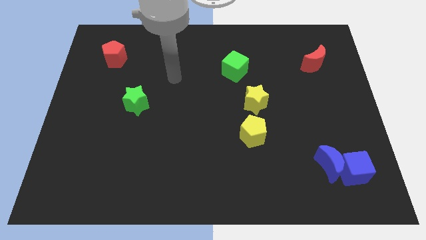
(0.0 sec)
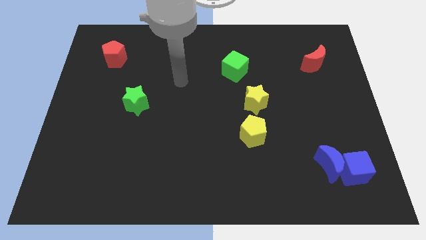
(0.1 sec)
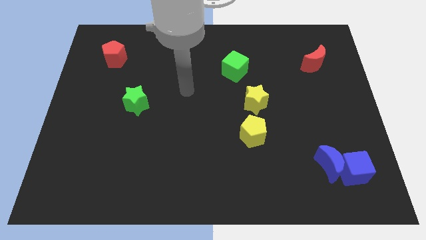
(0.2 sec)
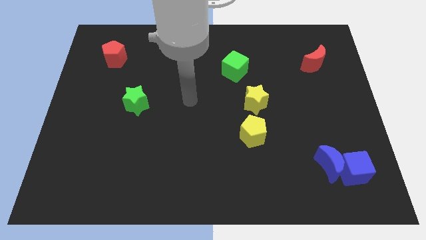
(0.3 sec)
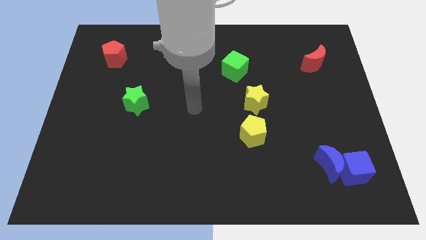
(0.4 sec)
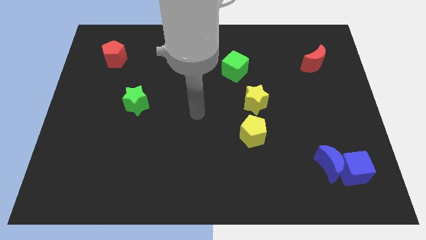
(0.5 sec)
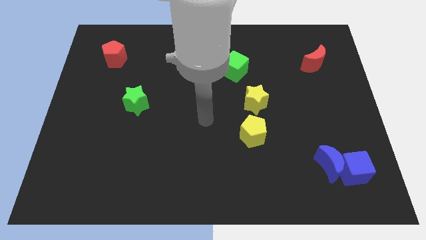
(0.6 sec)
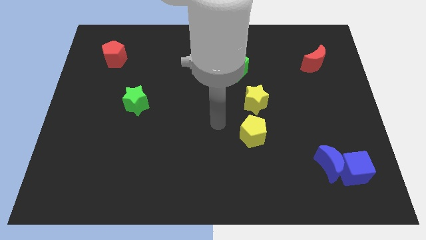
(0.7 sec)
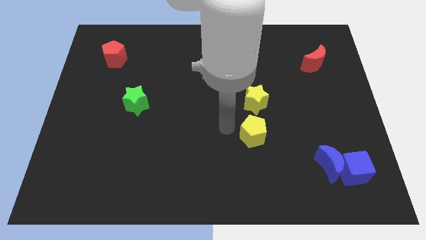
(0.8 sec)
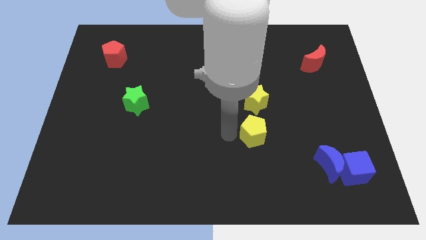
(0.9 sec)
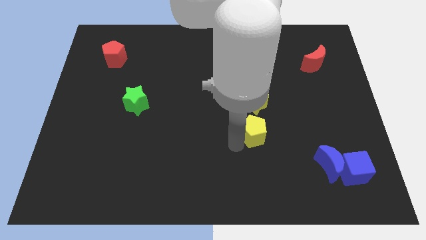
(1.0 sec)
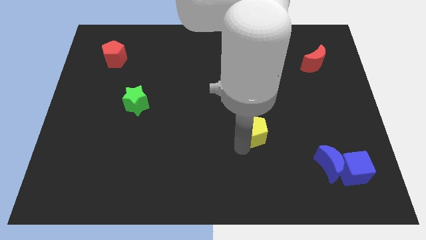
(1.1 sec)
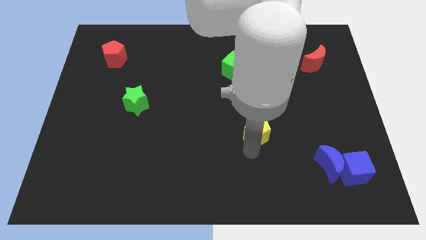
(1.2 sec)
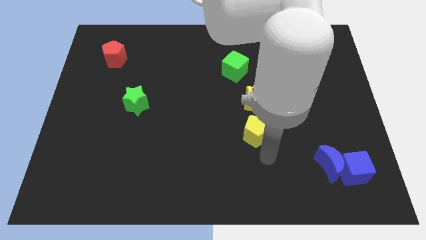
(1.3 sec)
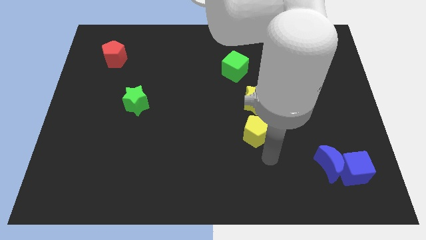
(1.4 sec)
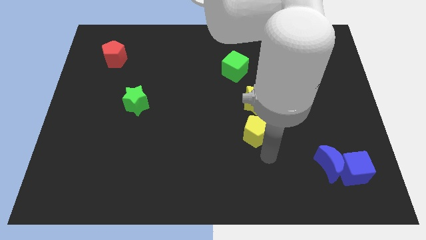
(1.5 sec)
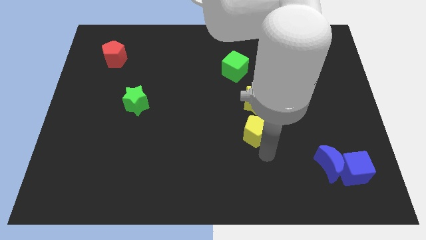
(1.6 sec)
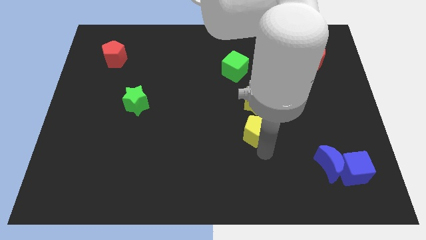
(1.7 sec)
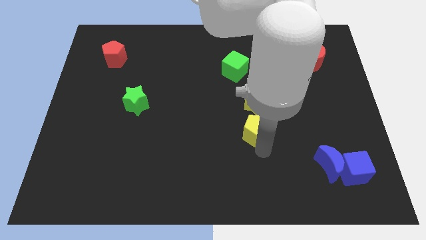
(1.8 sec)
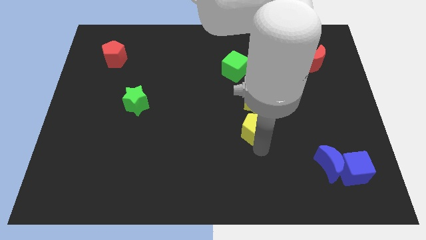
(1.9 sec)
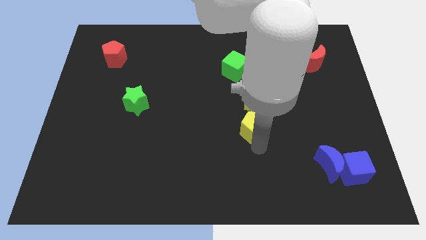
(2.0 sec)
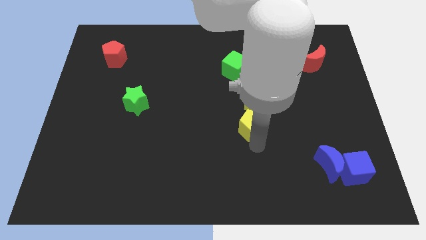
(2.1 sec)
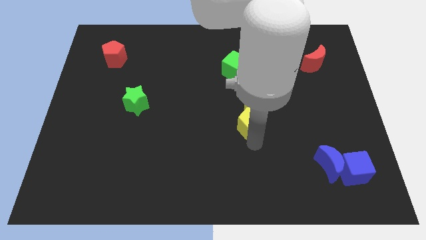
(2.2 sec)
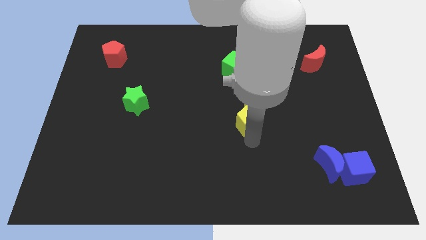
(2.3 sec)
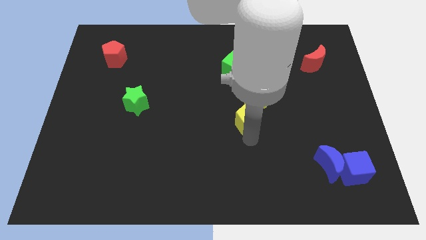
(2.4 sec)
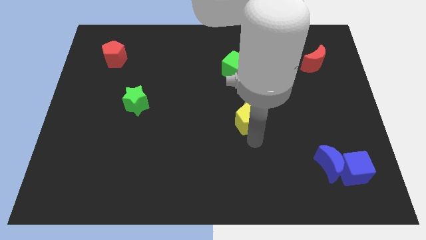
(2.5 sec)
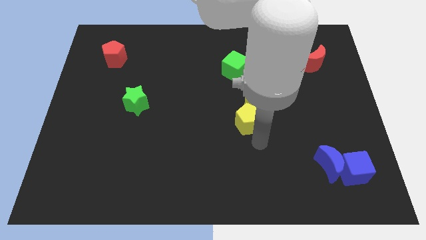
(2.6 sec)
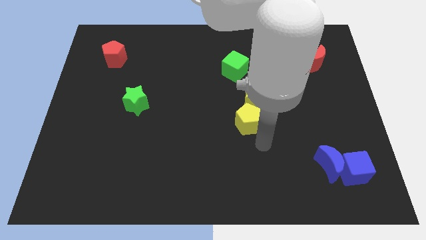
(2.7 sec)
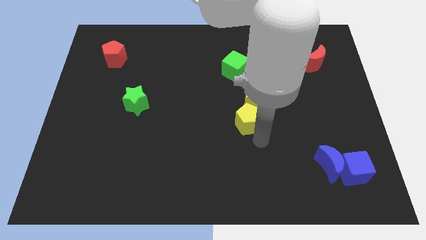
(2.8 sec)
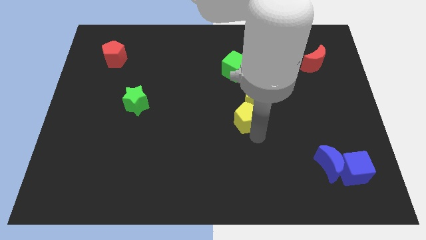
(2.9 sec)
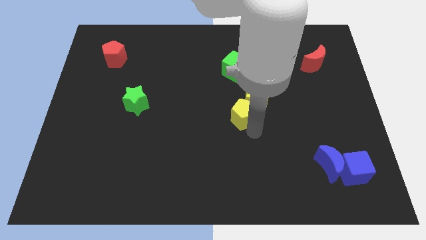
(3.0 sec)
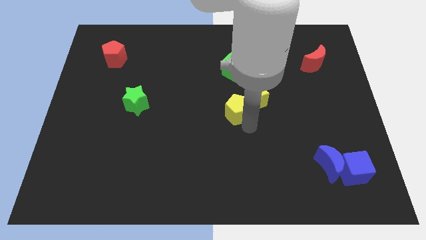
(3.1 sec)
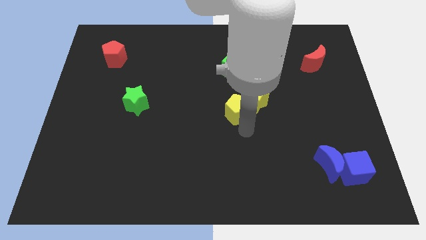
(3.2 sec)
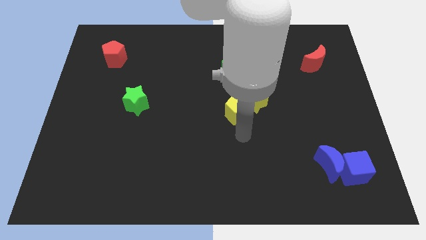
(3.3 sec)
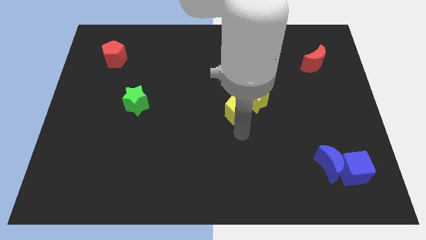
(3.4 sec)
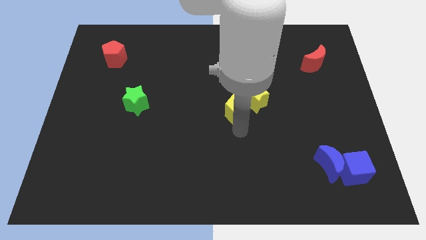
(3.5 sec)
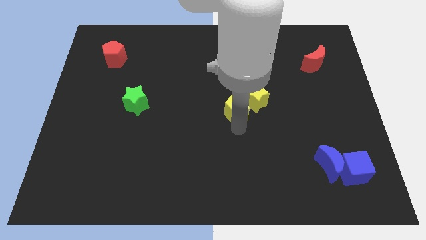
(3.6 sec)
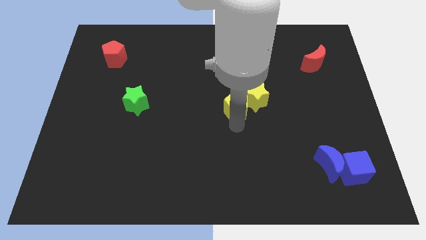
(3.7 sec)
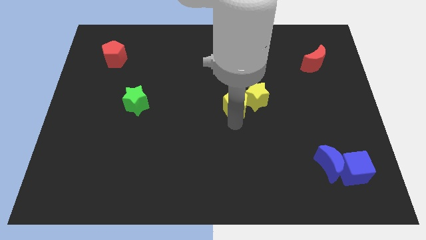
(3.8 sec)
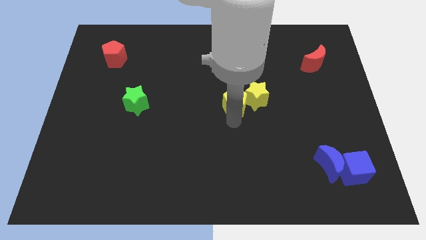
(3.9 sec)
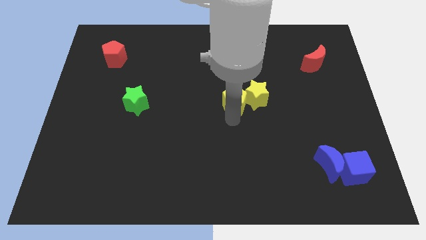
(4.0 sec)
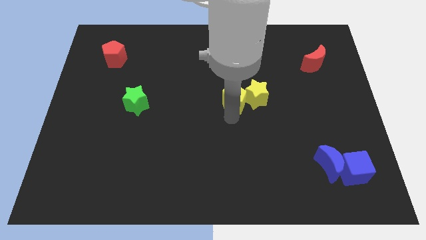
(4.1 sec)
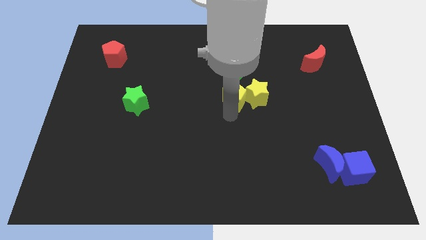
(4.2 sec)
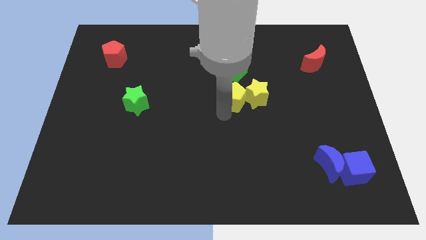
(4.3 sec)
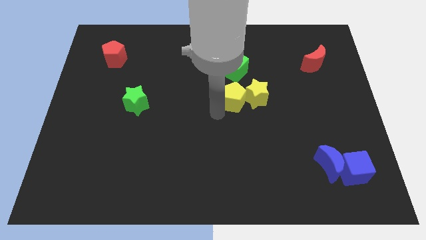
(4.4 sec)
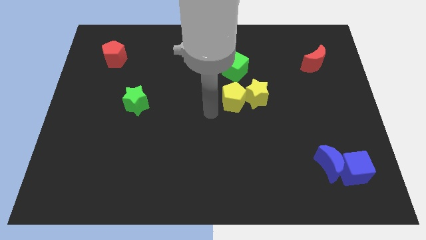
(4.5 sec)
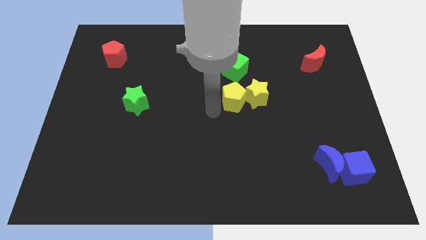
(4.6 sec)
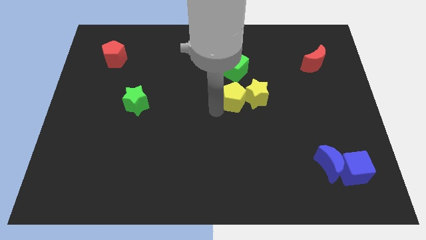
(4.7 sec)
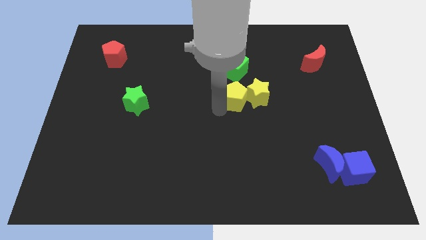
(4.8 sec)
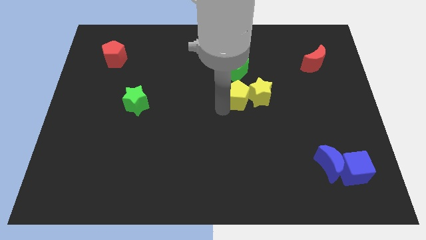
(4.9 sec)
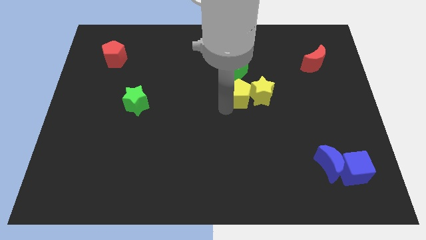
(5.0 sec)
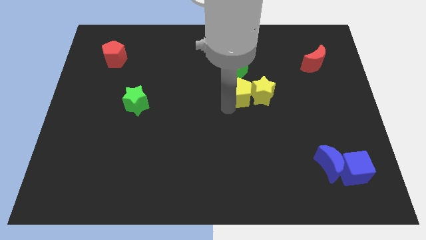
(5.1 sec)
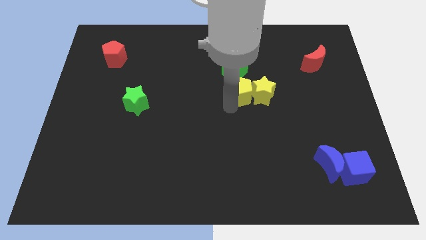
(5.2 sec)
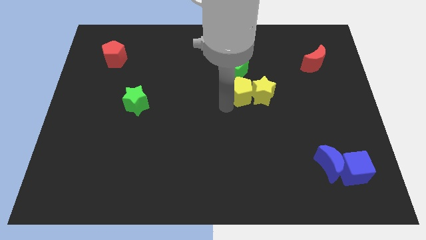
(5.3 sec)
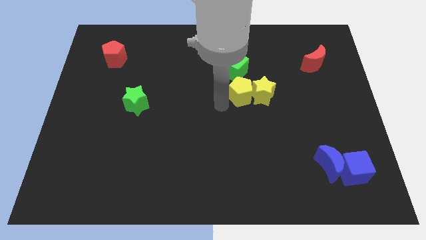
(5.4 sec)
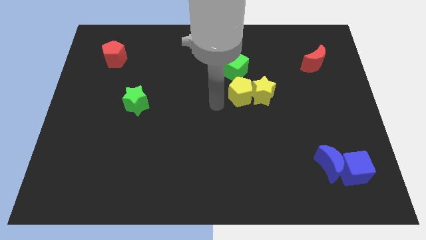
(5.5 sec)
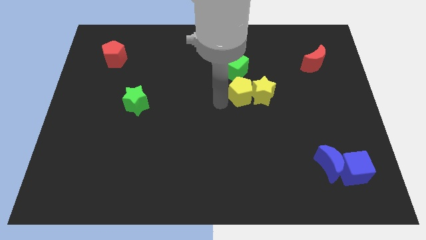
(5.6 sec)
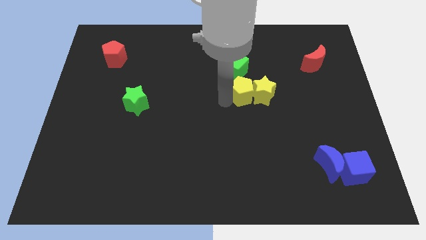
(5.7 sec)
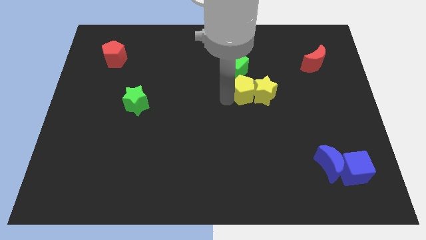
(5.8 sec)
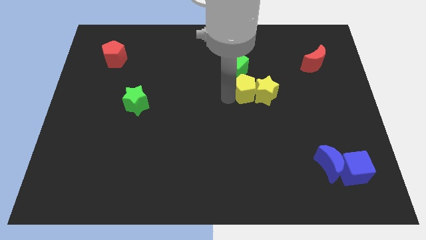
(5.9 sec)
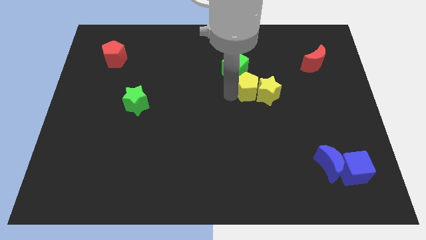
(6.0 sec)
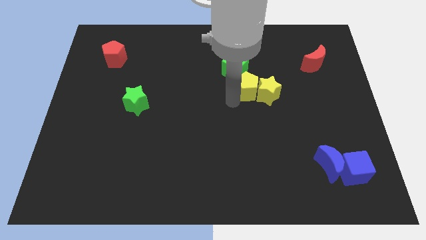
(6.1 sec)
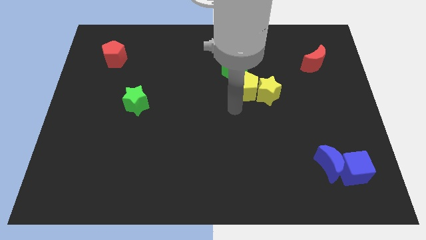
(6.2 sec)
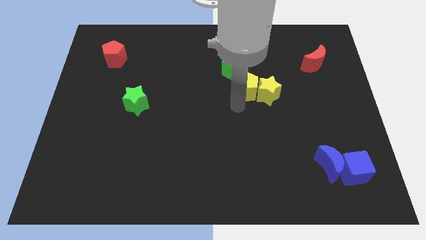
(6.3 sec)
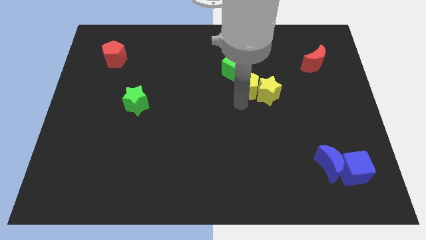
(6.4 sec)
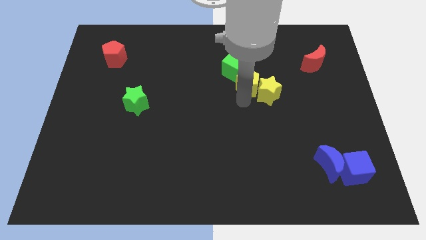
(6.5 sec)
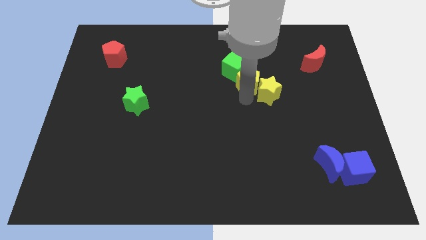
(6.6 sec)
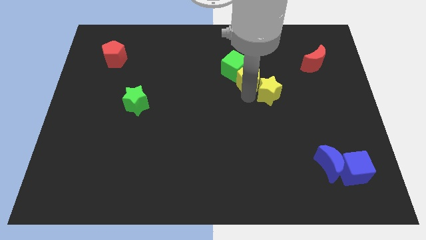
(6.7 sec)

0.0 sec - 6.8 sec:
put the yellow pentagon to the top side of the yellow star
